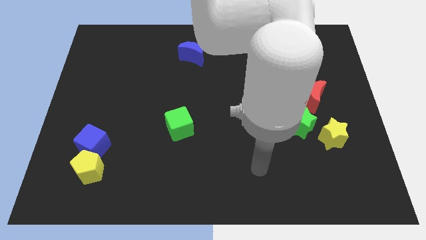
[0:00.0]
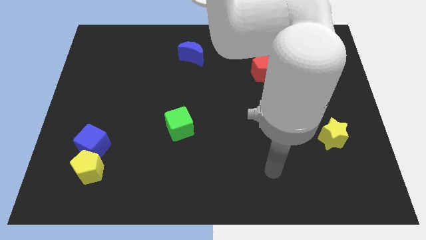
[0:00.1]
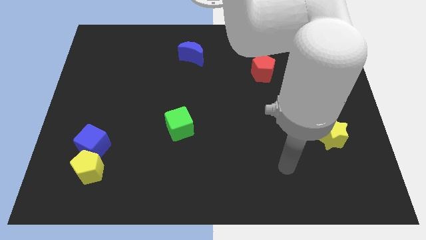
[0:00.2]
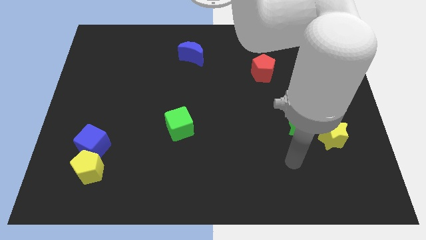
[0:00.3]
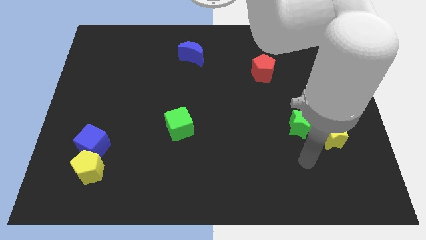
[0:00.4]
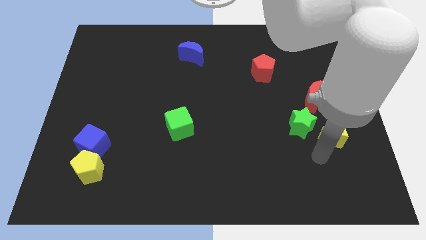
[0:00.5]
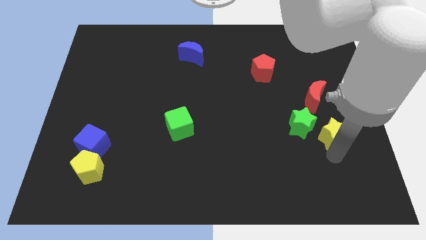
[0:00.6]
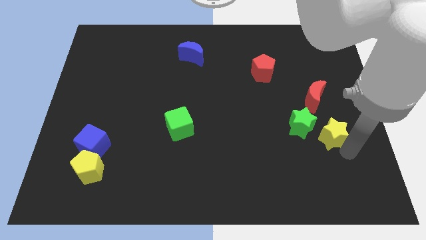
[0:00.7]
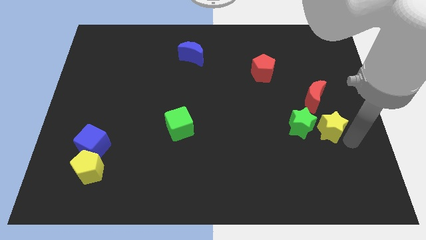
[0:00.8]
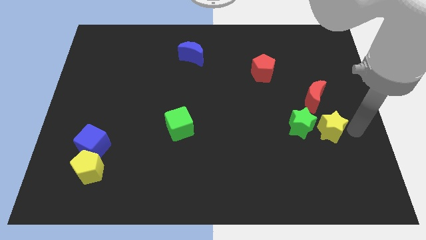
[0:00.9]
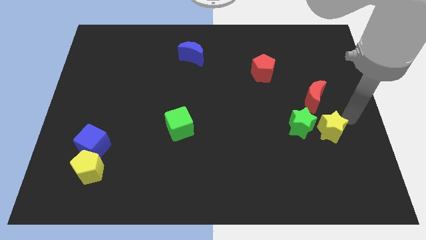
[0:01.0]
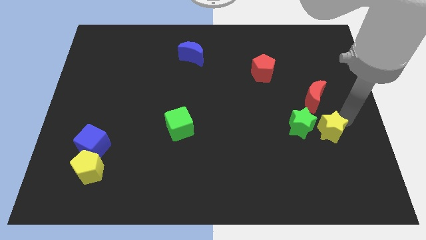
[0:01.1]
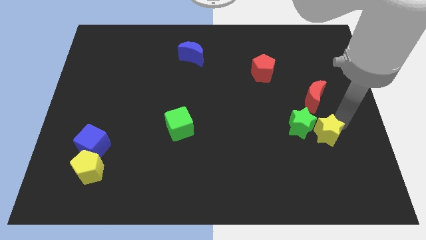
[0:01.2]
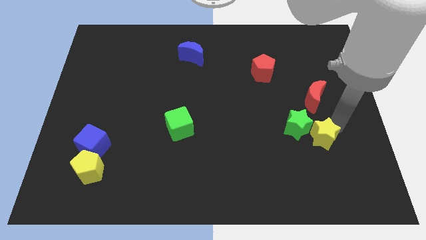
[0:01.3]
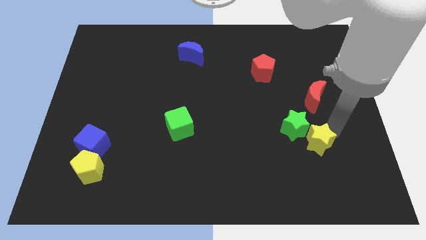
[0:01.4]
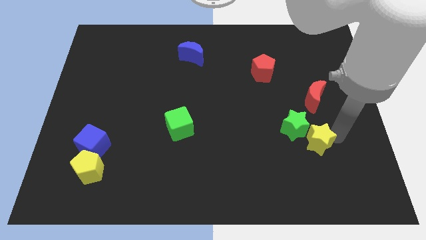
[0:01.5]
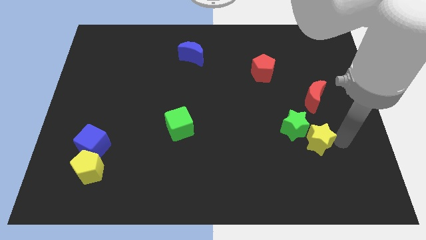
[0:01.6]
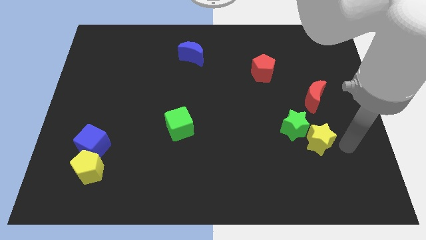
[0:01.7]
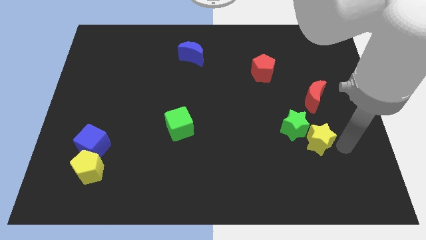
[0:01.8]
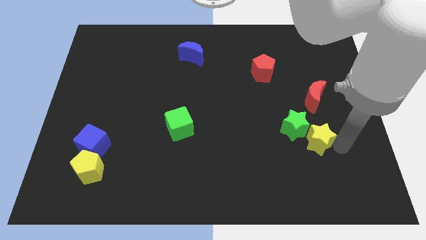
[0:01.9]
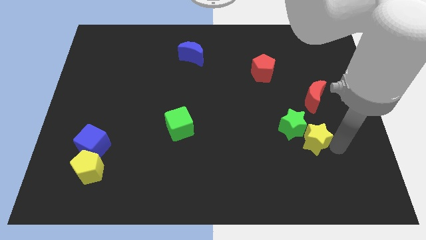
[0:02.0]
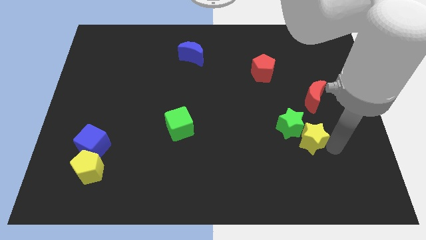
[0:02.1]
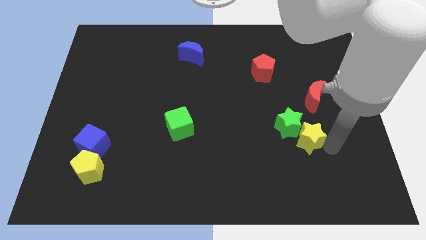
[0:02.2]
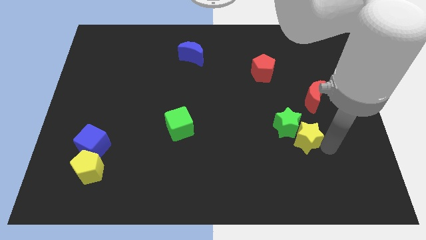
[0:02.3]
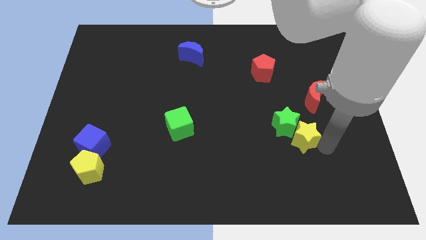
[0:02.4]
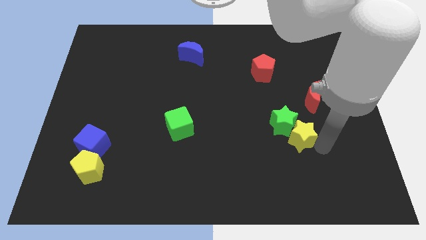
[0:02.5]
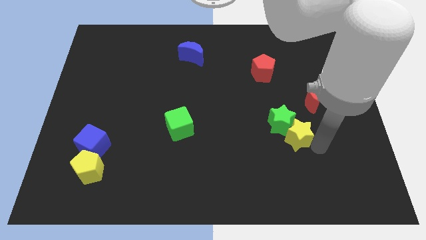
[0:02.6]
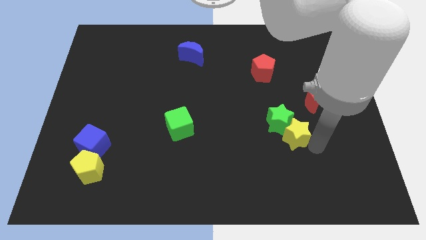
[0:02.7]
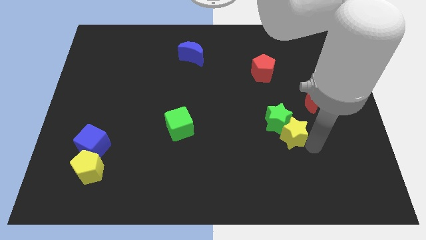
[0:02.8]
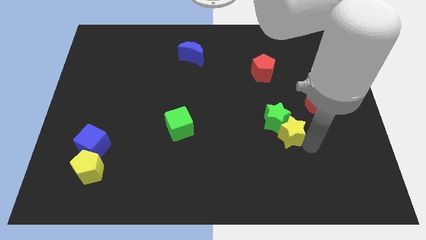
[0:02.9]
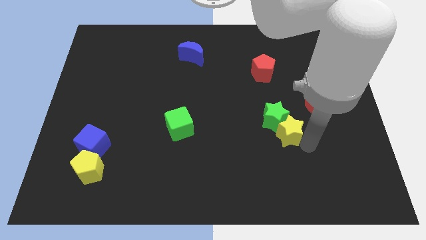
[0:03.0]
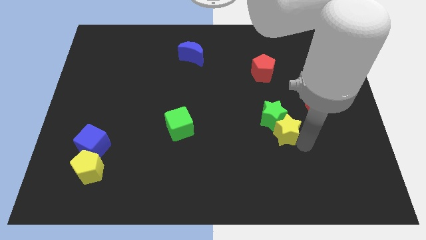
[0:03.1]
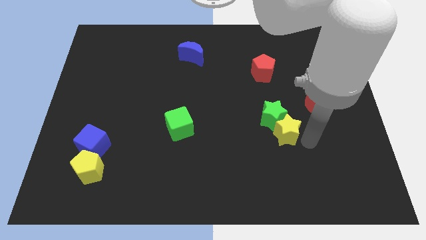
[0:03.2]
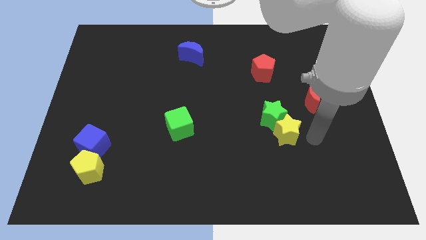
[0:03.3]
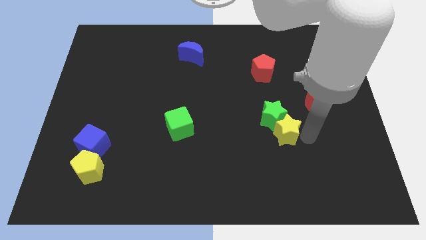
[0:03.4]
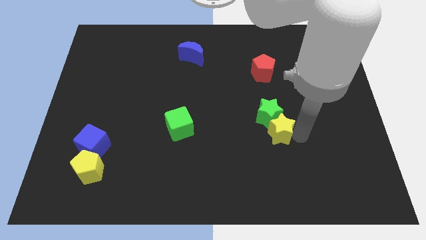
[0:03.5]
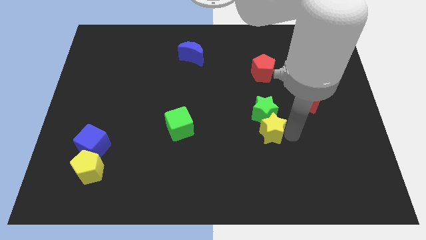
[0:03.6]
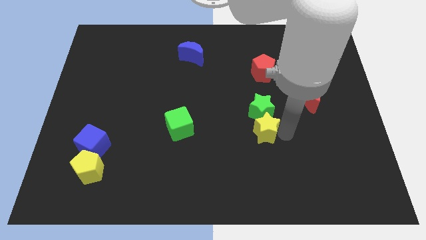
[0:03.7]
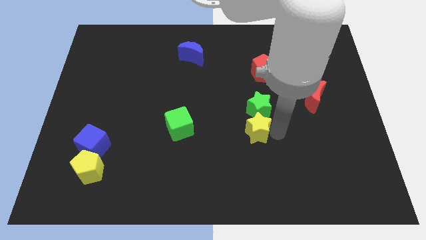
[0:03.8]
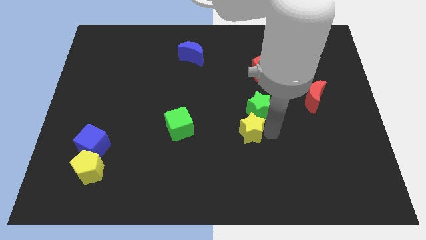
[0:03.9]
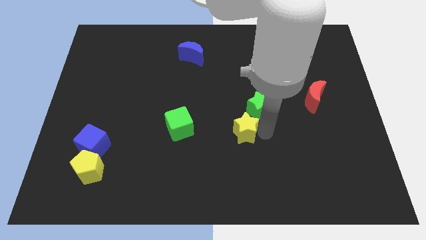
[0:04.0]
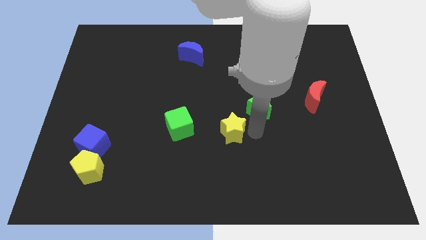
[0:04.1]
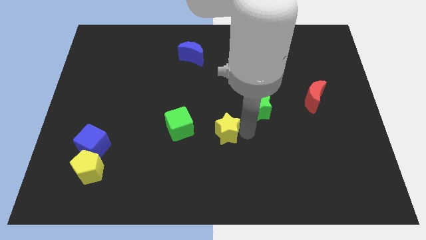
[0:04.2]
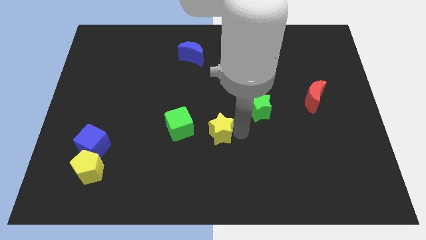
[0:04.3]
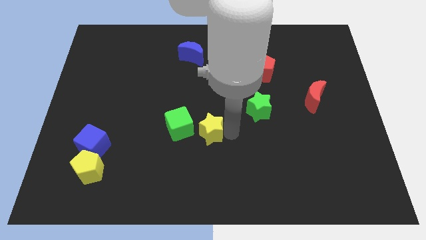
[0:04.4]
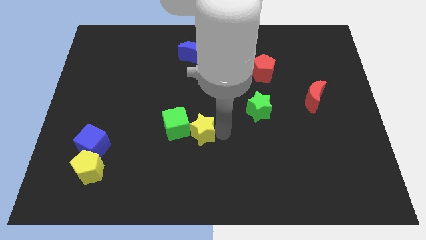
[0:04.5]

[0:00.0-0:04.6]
put the yellow star towards the green cube

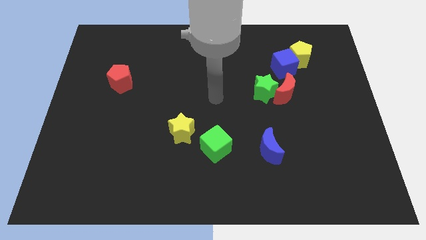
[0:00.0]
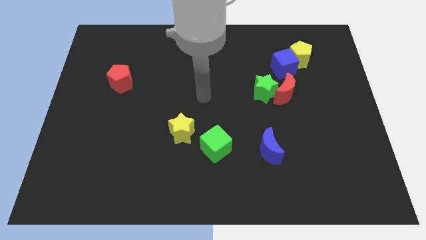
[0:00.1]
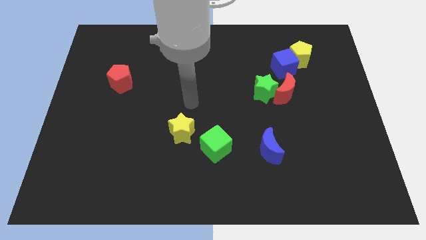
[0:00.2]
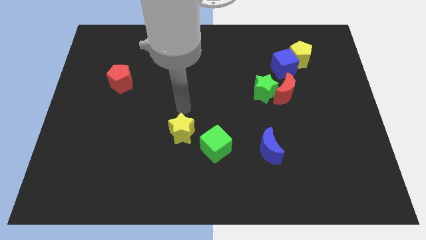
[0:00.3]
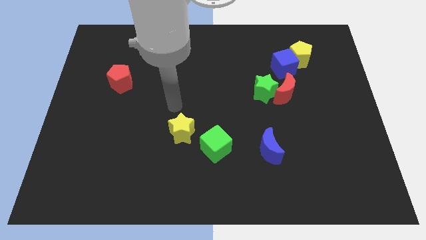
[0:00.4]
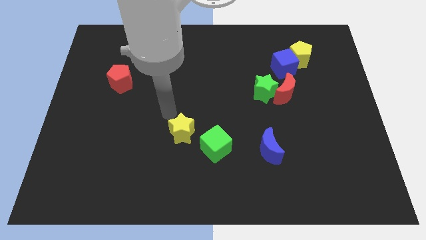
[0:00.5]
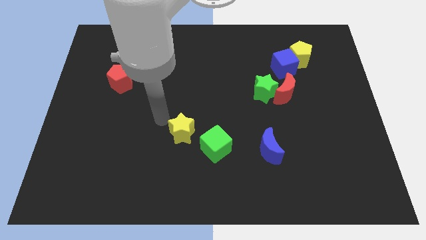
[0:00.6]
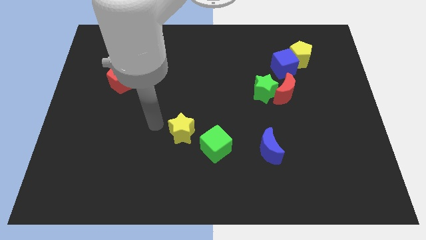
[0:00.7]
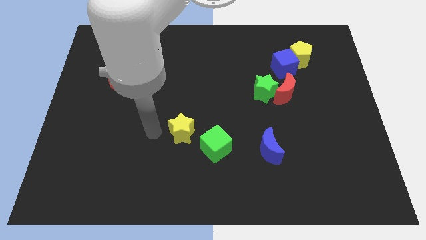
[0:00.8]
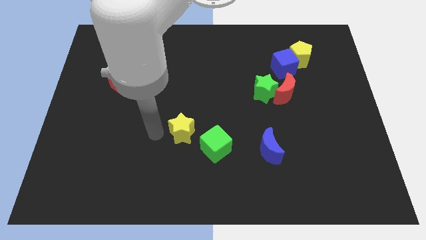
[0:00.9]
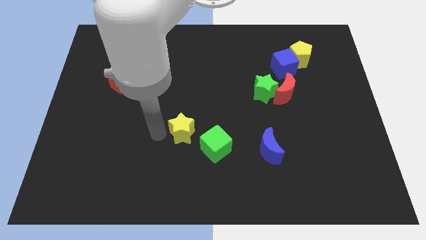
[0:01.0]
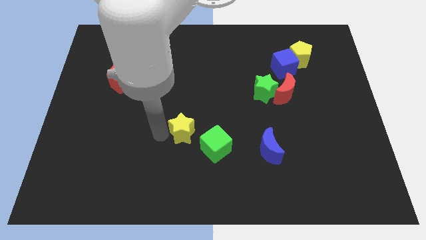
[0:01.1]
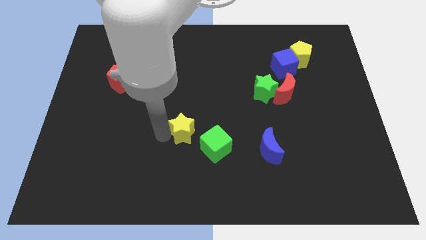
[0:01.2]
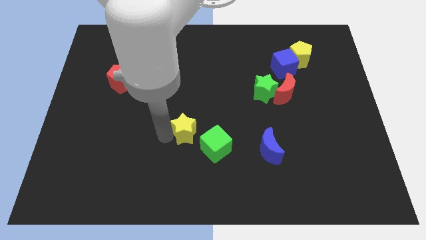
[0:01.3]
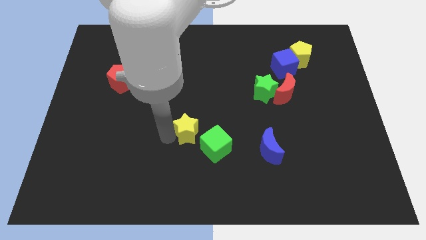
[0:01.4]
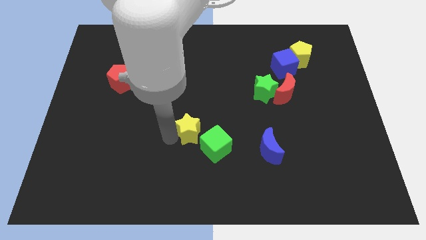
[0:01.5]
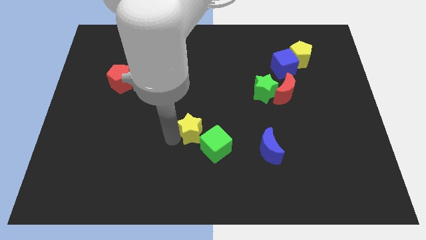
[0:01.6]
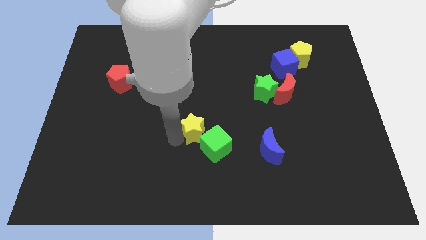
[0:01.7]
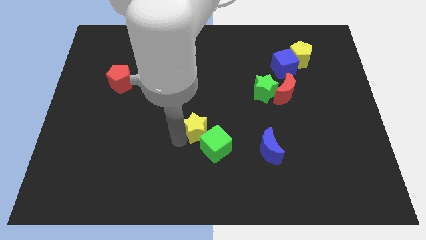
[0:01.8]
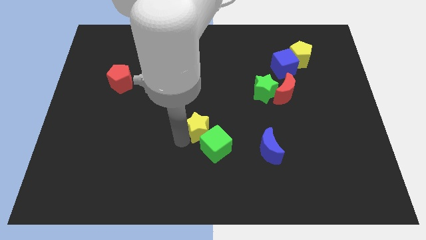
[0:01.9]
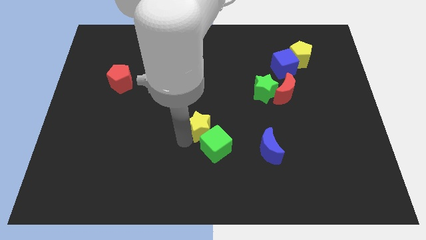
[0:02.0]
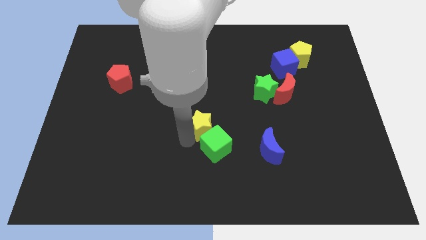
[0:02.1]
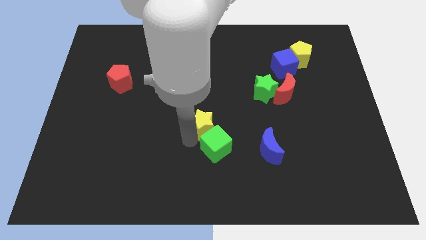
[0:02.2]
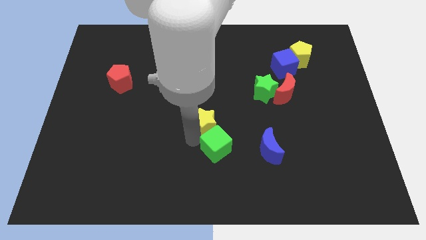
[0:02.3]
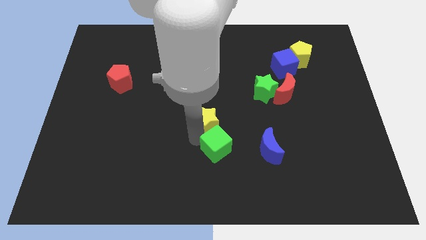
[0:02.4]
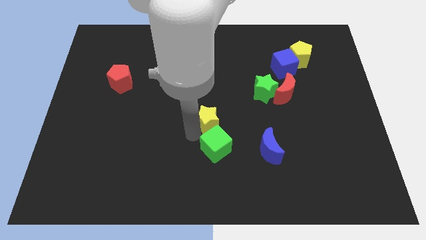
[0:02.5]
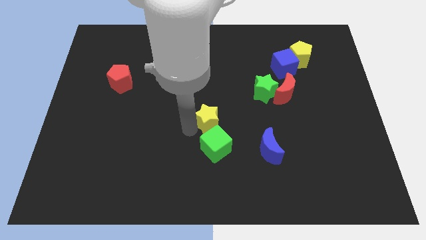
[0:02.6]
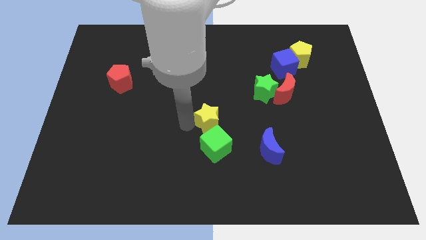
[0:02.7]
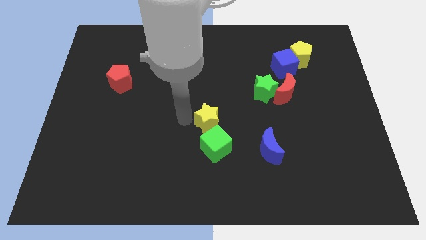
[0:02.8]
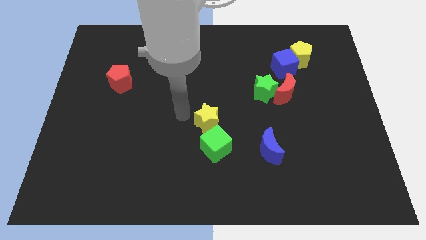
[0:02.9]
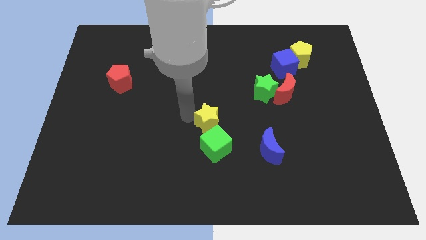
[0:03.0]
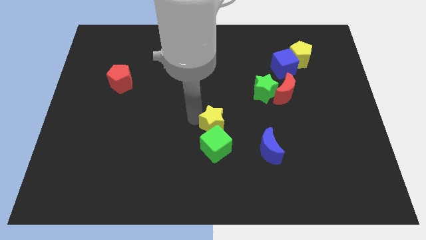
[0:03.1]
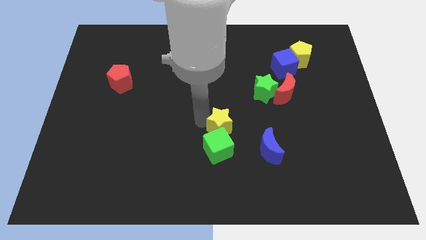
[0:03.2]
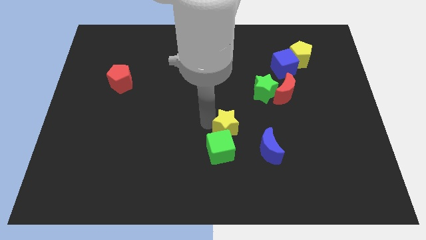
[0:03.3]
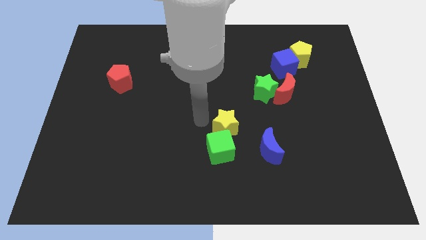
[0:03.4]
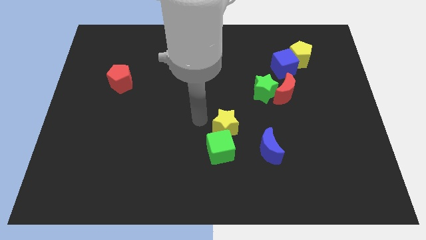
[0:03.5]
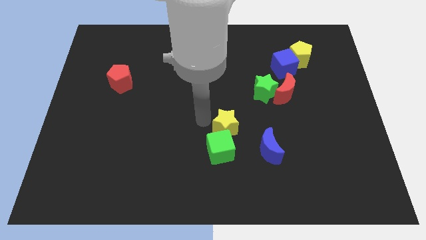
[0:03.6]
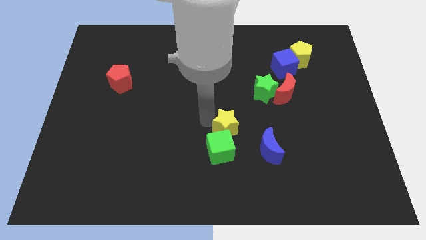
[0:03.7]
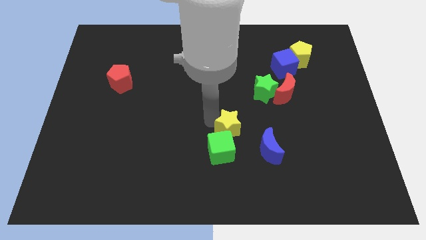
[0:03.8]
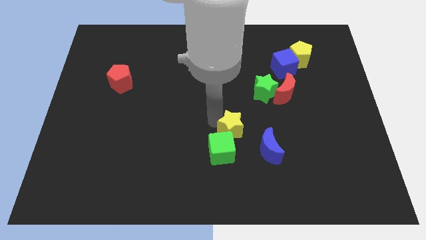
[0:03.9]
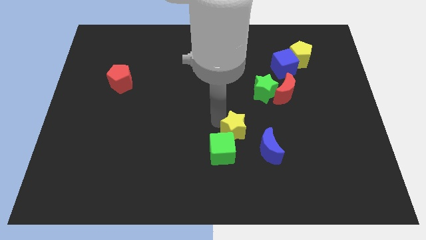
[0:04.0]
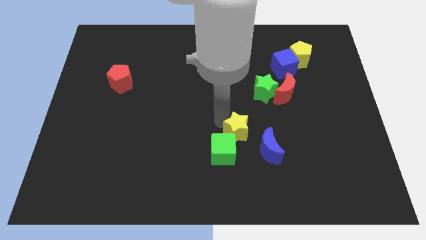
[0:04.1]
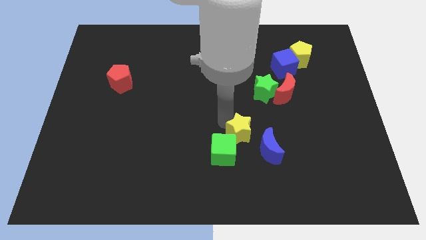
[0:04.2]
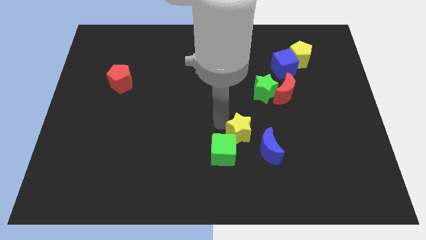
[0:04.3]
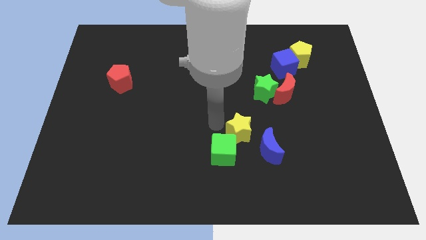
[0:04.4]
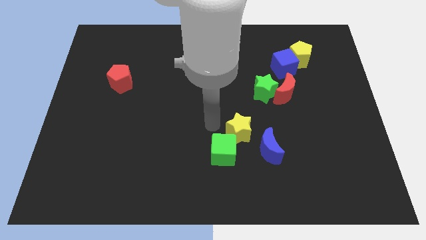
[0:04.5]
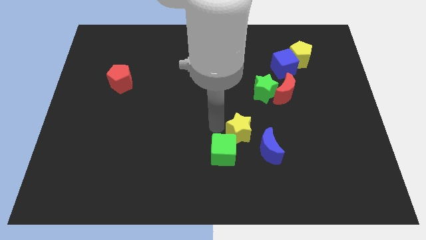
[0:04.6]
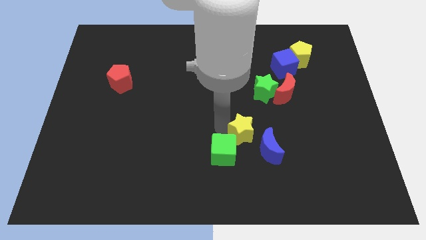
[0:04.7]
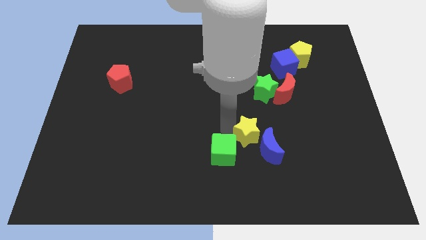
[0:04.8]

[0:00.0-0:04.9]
put the yellow star next to the blue moon
